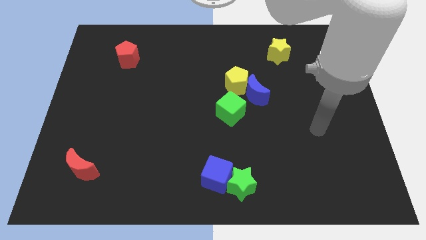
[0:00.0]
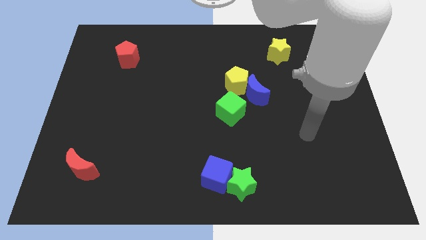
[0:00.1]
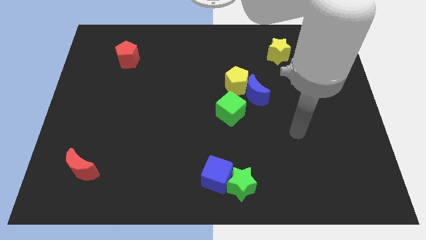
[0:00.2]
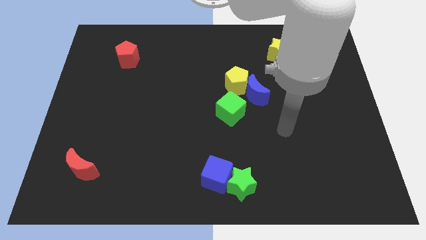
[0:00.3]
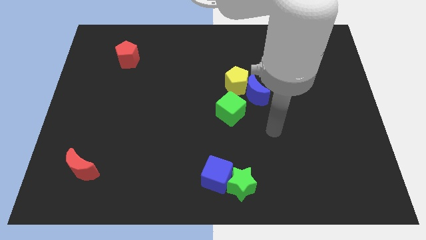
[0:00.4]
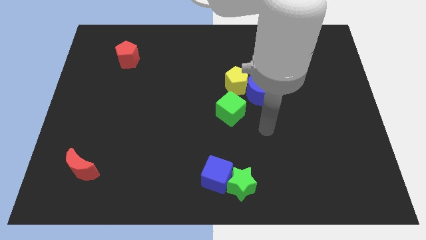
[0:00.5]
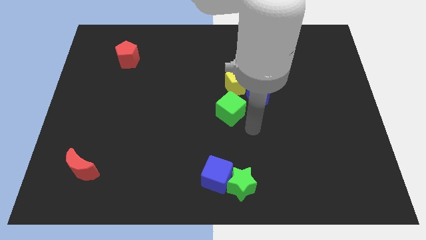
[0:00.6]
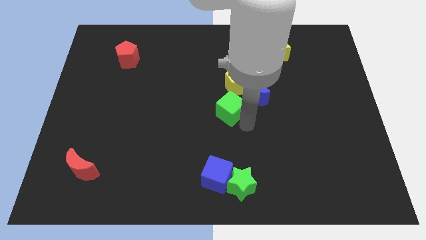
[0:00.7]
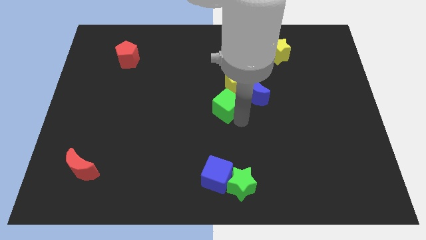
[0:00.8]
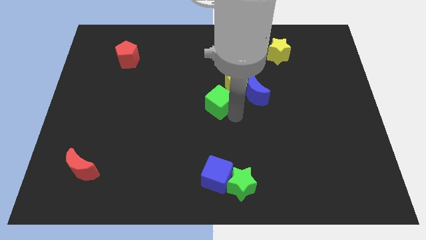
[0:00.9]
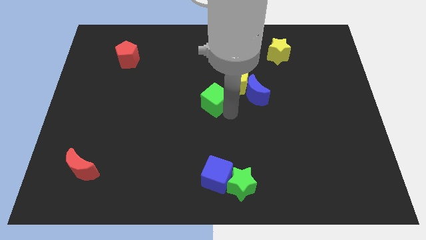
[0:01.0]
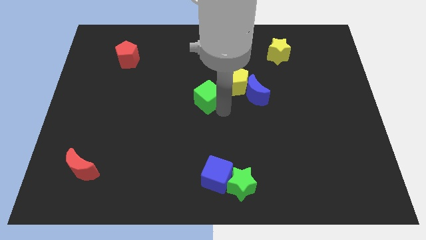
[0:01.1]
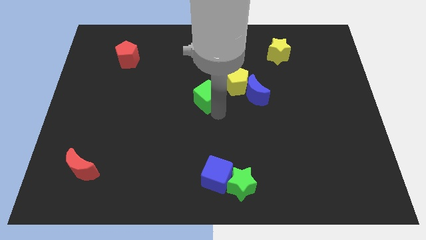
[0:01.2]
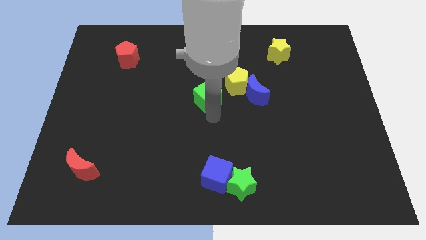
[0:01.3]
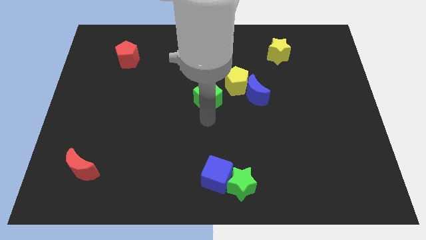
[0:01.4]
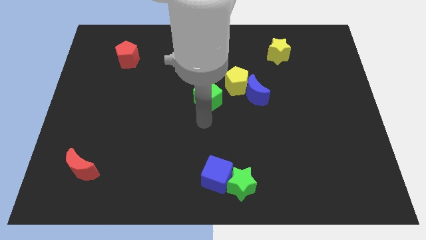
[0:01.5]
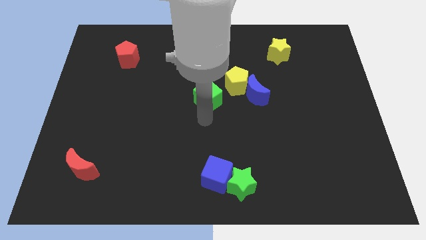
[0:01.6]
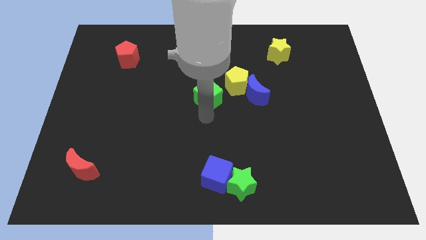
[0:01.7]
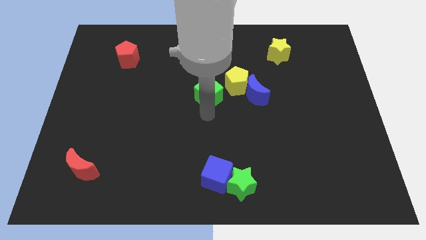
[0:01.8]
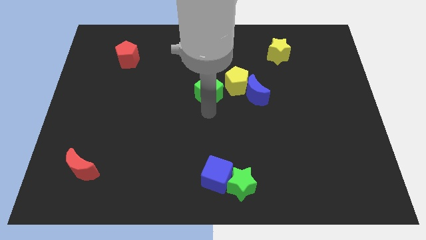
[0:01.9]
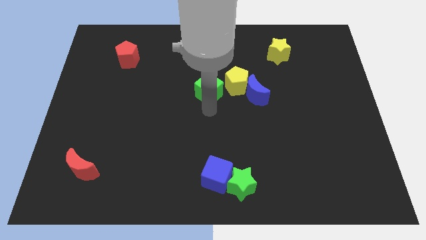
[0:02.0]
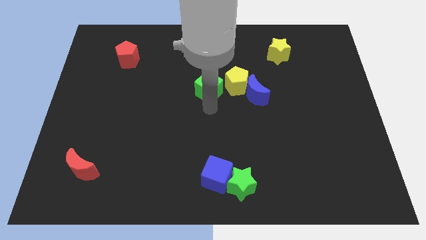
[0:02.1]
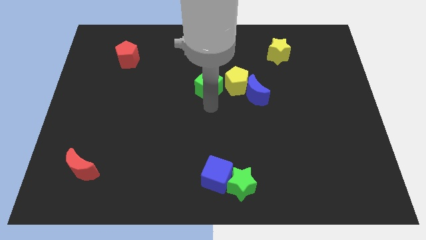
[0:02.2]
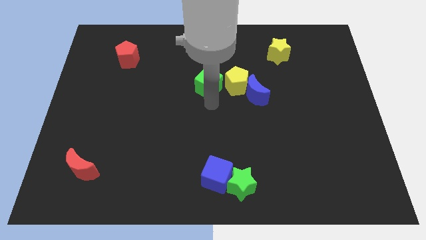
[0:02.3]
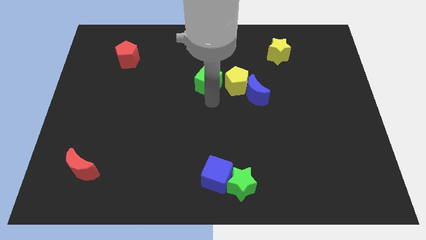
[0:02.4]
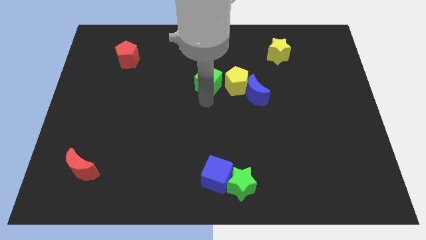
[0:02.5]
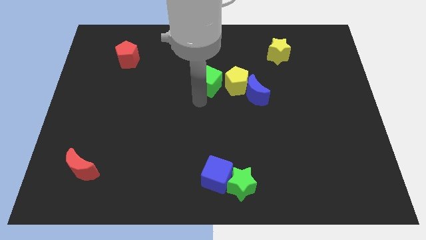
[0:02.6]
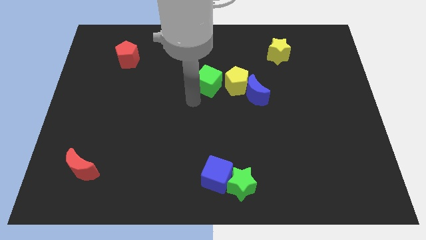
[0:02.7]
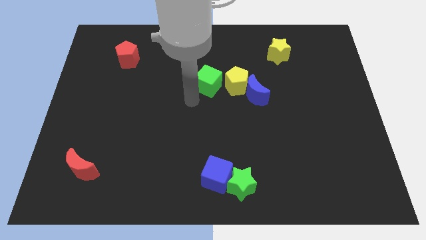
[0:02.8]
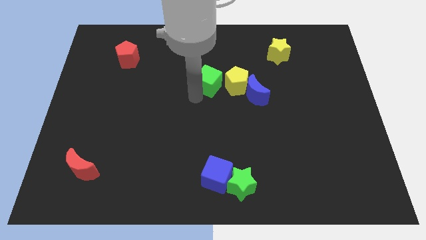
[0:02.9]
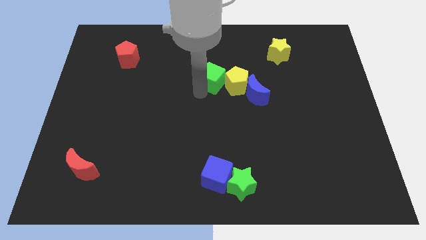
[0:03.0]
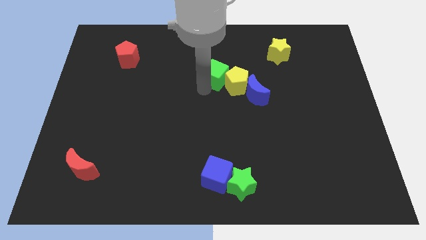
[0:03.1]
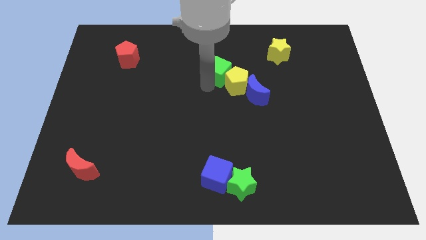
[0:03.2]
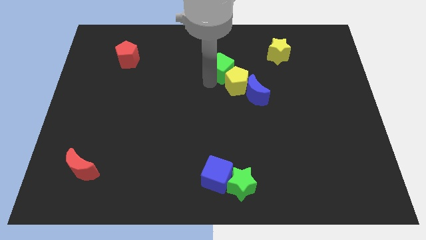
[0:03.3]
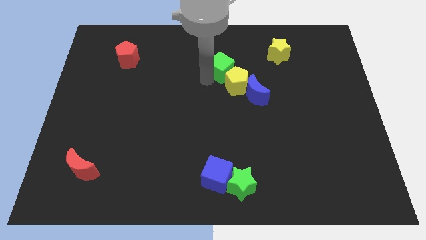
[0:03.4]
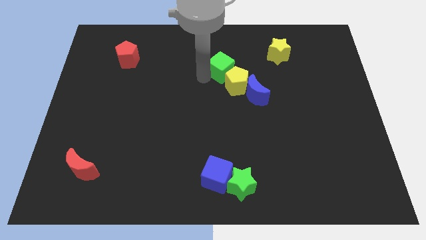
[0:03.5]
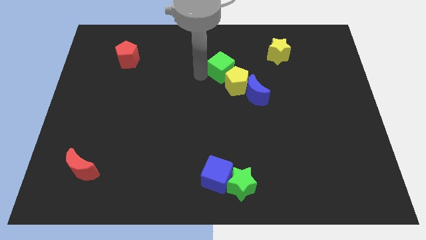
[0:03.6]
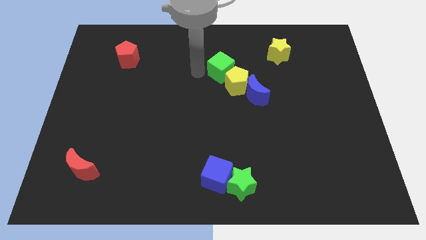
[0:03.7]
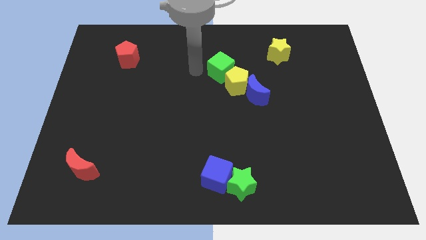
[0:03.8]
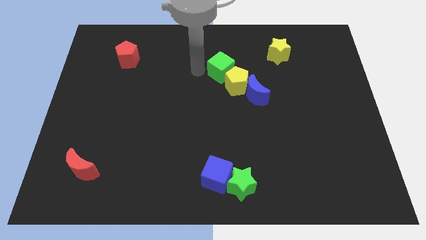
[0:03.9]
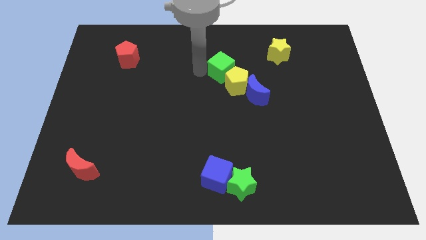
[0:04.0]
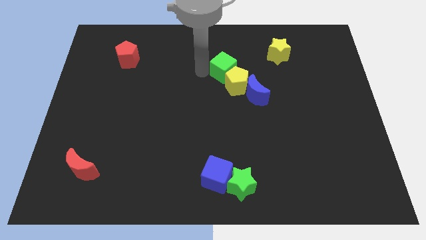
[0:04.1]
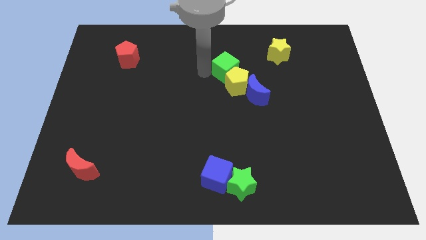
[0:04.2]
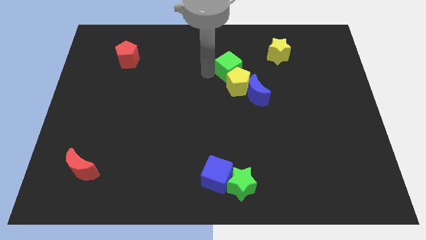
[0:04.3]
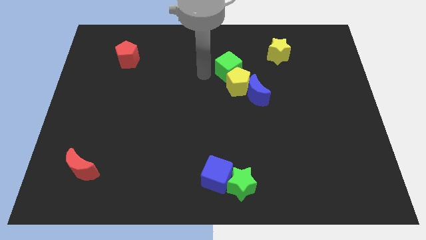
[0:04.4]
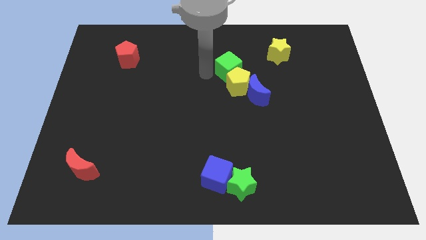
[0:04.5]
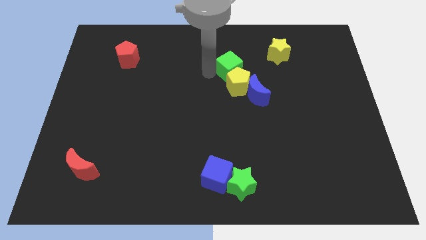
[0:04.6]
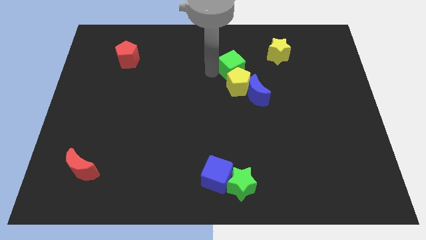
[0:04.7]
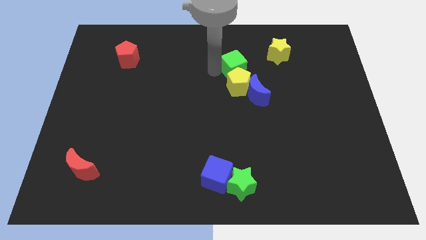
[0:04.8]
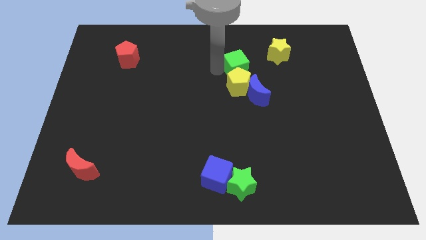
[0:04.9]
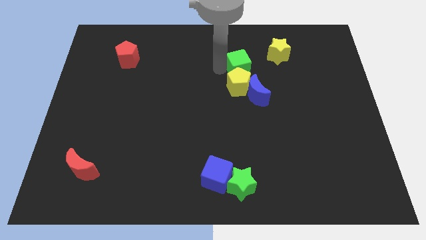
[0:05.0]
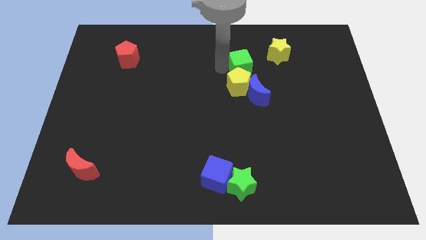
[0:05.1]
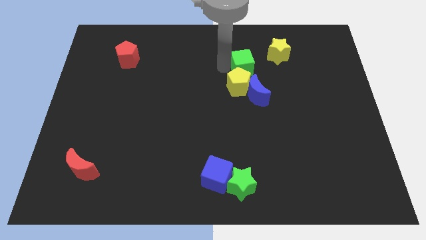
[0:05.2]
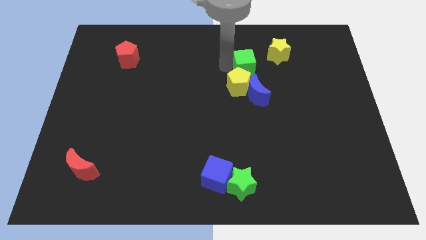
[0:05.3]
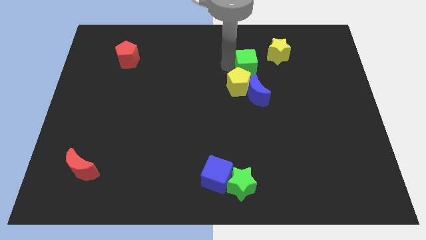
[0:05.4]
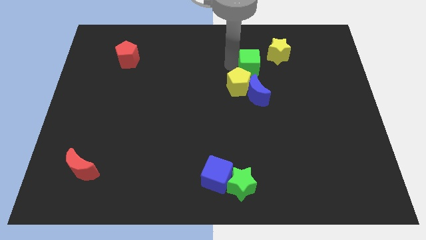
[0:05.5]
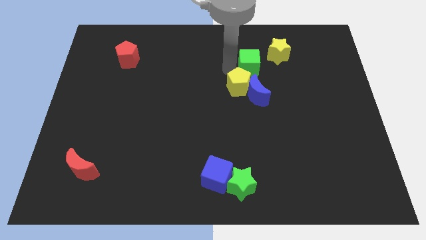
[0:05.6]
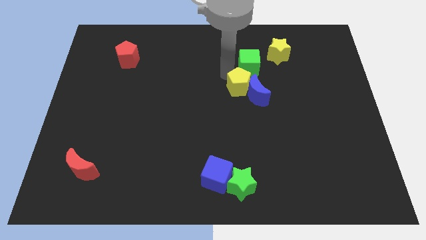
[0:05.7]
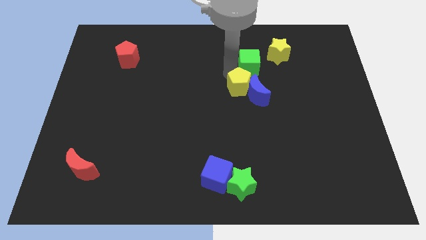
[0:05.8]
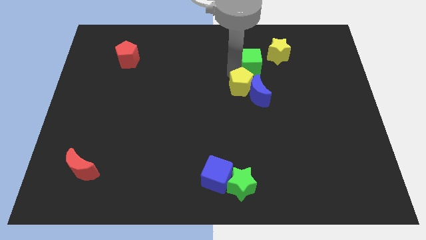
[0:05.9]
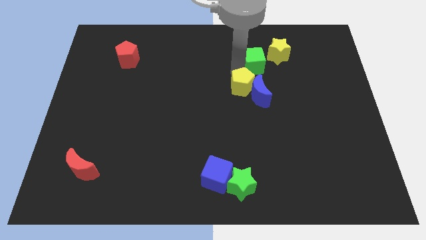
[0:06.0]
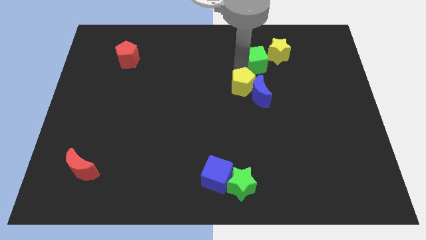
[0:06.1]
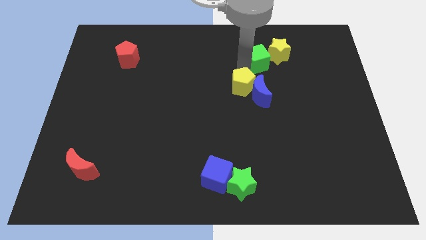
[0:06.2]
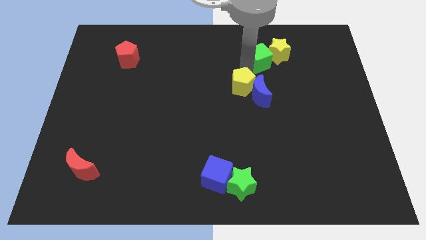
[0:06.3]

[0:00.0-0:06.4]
move the green cube to the yellow star
